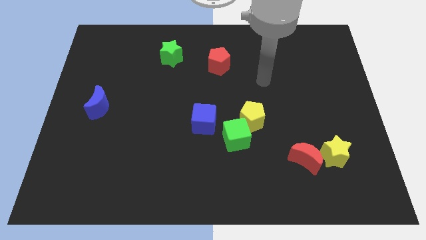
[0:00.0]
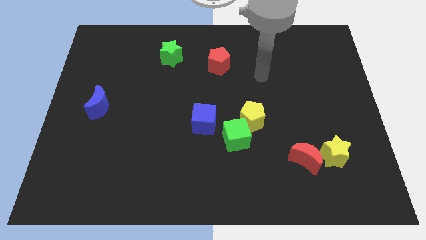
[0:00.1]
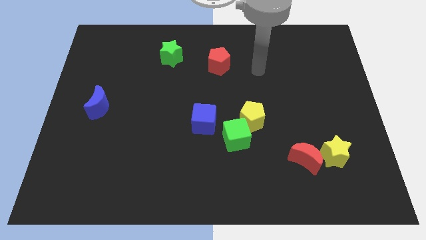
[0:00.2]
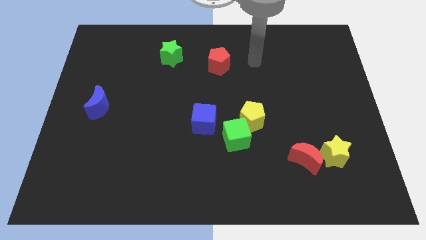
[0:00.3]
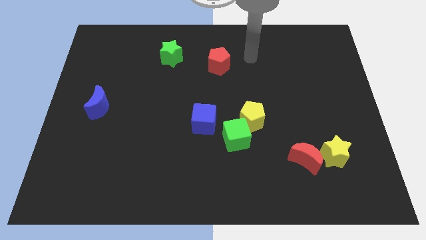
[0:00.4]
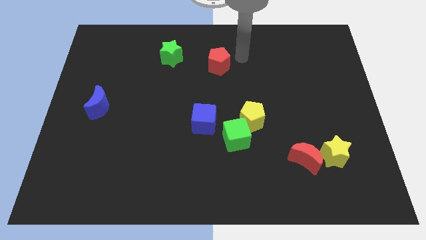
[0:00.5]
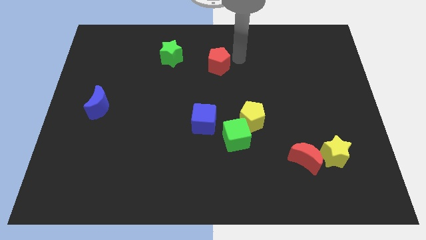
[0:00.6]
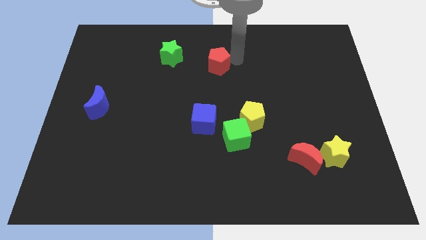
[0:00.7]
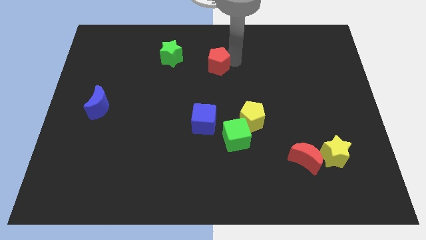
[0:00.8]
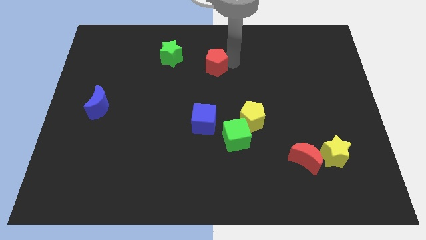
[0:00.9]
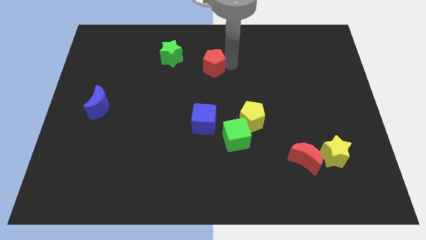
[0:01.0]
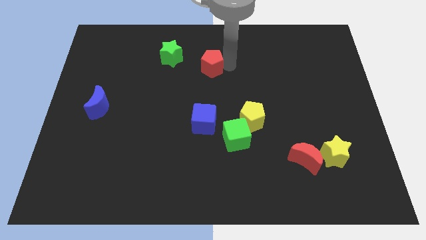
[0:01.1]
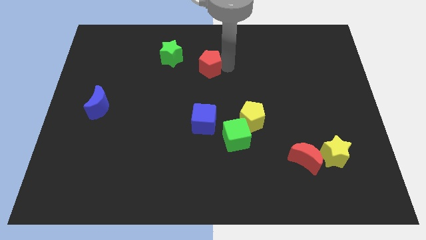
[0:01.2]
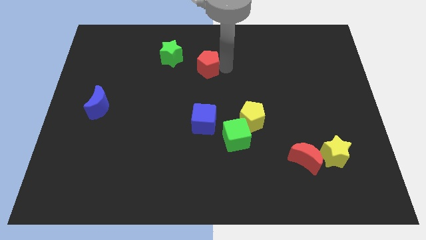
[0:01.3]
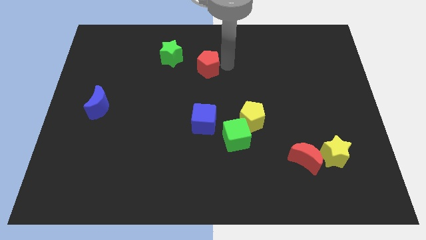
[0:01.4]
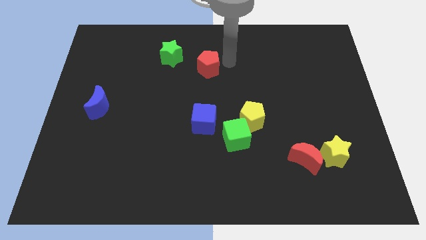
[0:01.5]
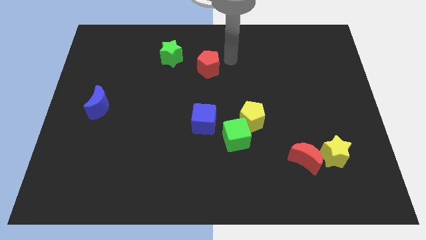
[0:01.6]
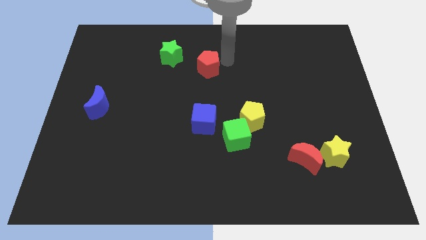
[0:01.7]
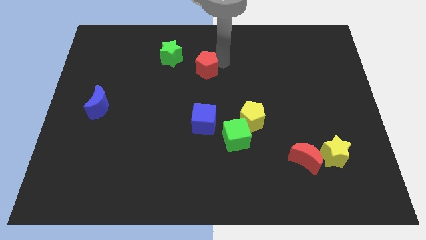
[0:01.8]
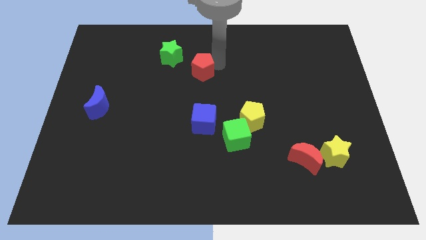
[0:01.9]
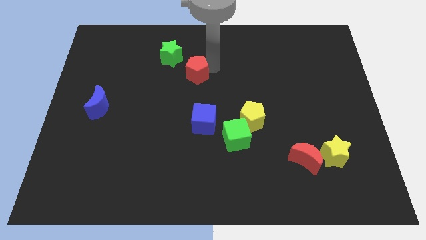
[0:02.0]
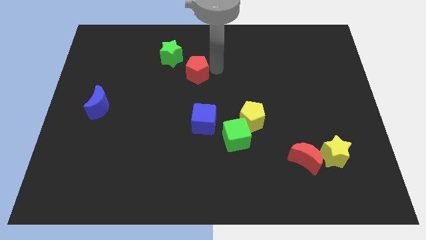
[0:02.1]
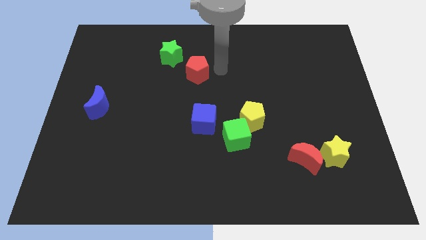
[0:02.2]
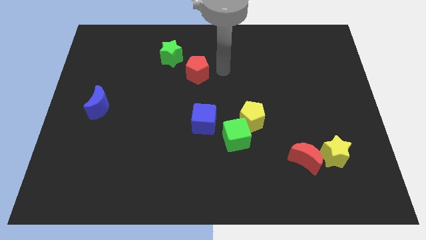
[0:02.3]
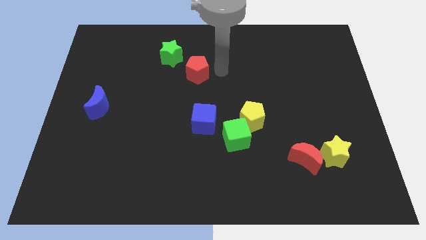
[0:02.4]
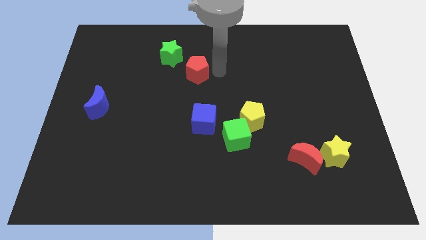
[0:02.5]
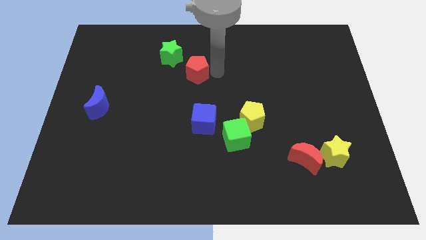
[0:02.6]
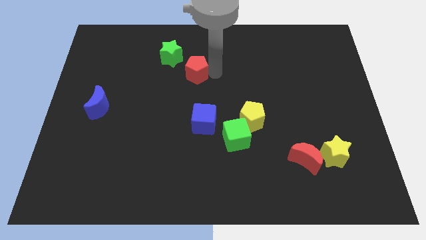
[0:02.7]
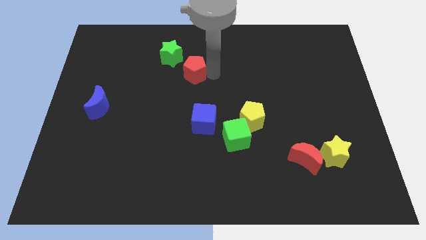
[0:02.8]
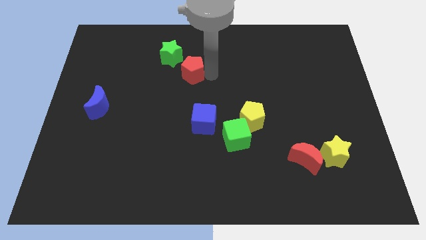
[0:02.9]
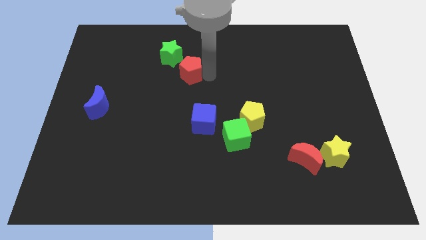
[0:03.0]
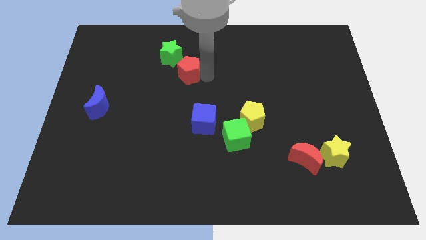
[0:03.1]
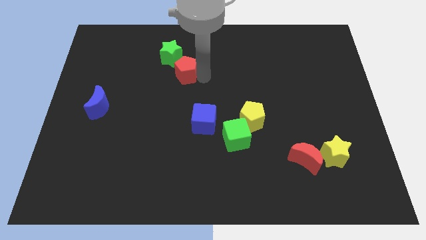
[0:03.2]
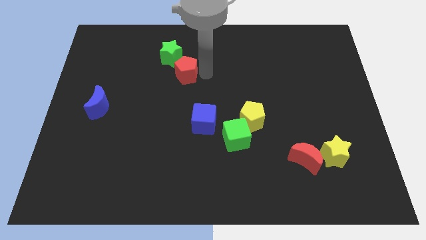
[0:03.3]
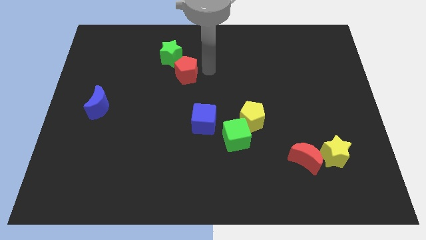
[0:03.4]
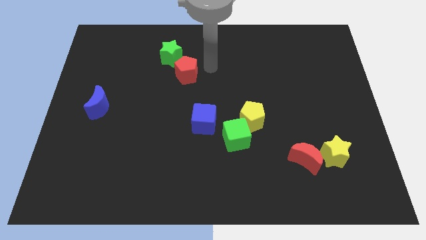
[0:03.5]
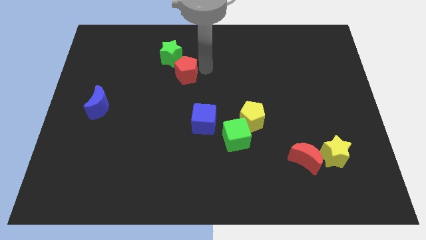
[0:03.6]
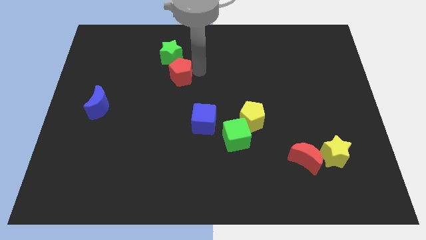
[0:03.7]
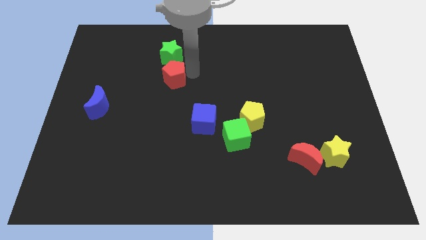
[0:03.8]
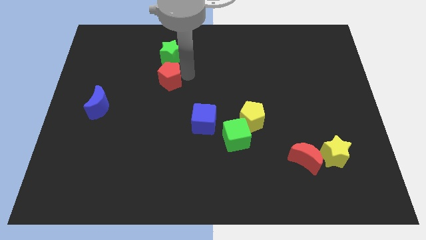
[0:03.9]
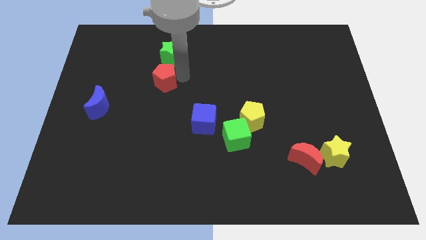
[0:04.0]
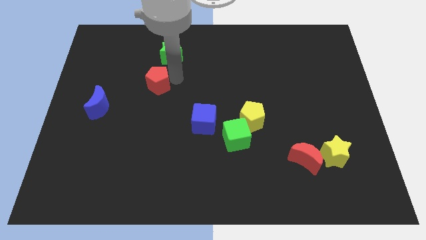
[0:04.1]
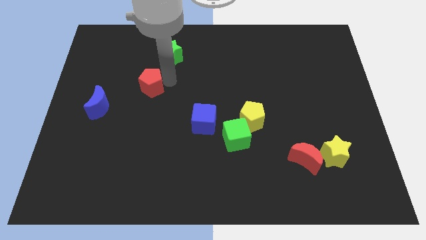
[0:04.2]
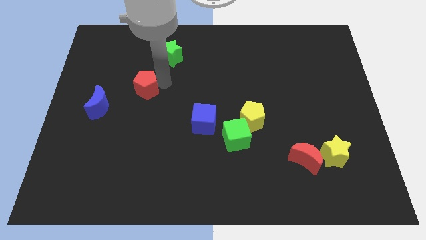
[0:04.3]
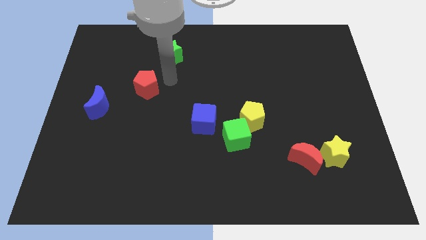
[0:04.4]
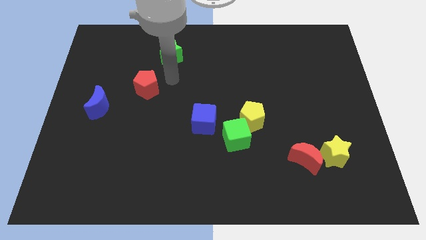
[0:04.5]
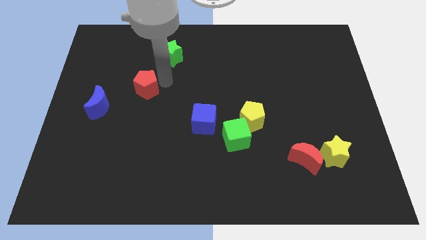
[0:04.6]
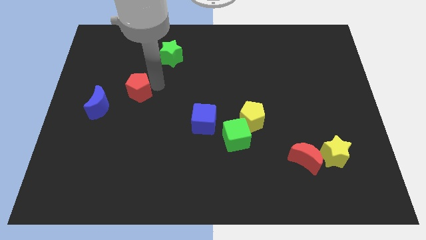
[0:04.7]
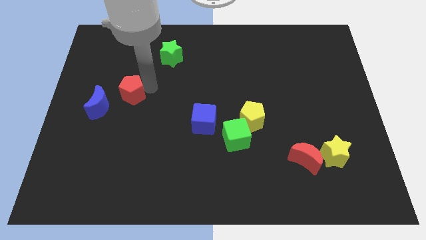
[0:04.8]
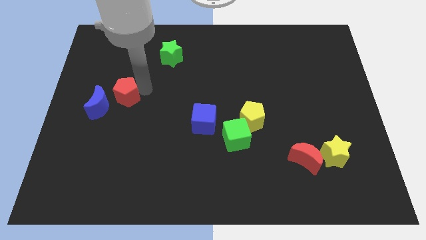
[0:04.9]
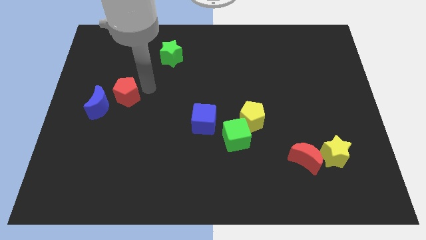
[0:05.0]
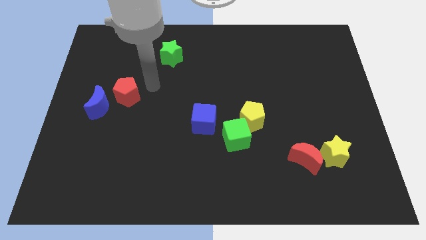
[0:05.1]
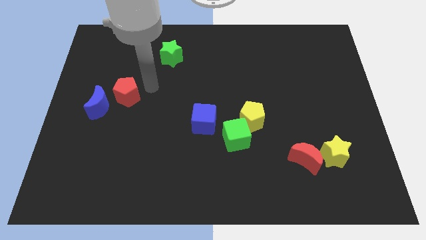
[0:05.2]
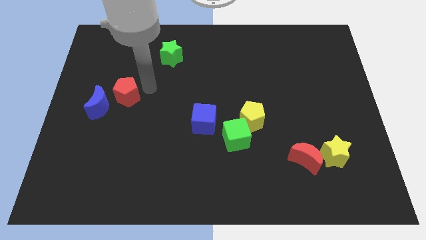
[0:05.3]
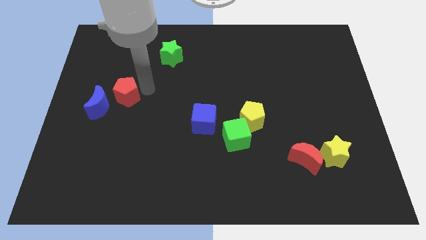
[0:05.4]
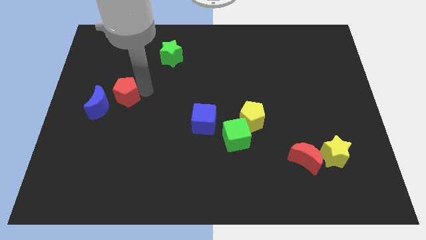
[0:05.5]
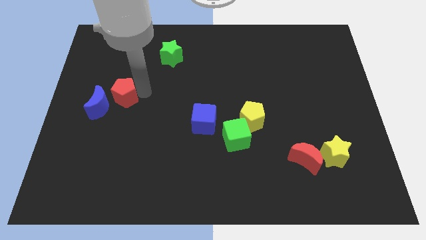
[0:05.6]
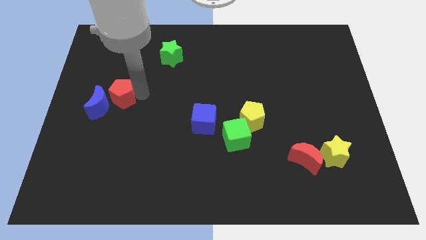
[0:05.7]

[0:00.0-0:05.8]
move the red pentagon towards the blue moon

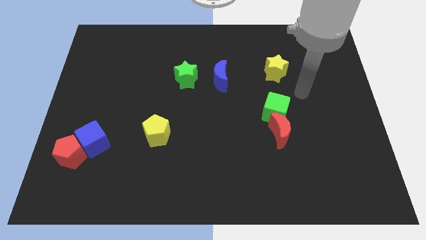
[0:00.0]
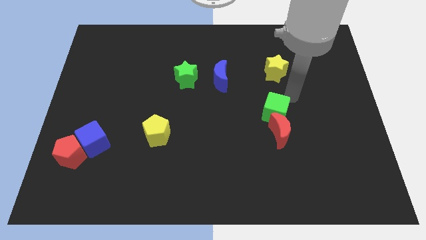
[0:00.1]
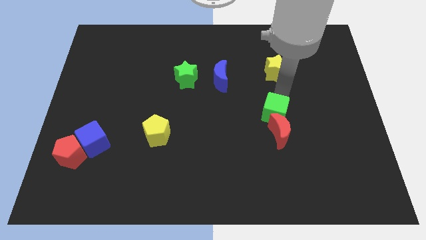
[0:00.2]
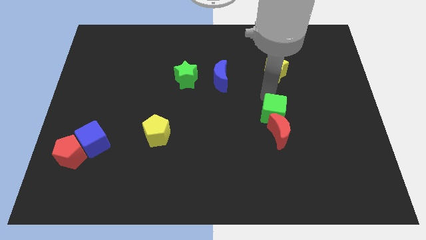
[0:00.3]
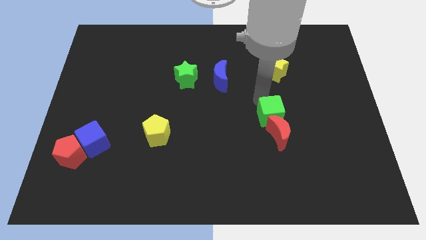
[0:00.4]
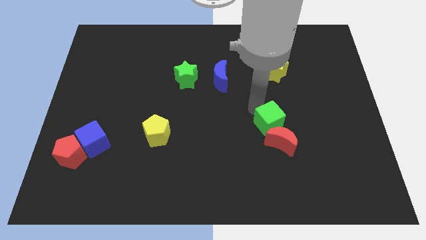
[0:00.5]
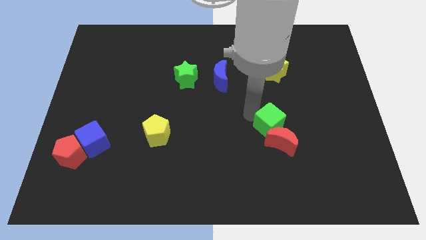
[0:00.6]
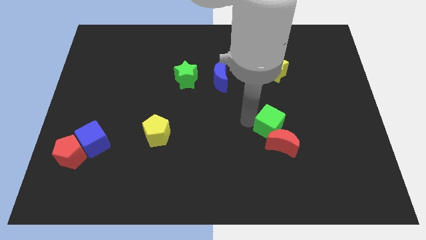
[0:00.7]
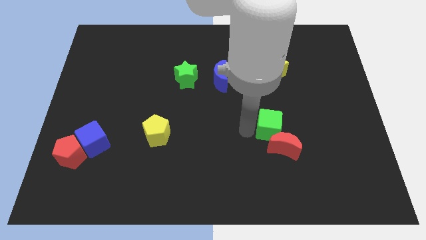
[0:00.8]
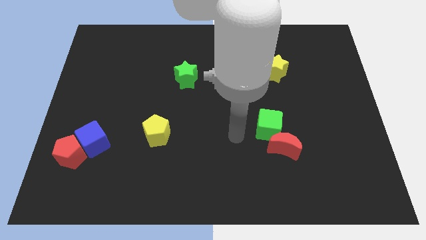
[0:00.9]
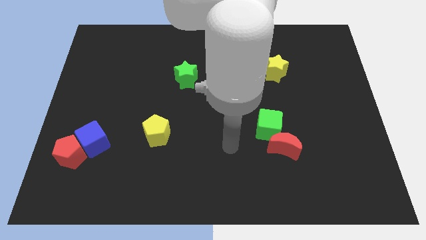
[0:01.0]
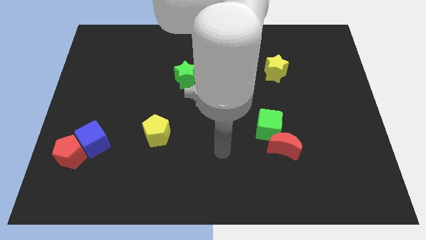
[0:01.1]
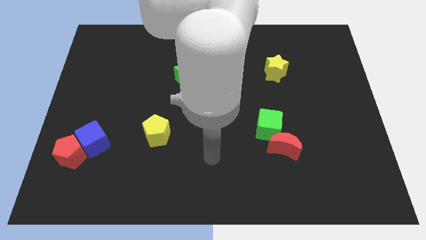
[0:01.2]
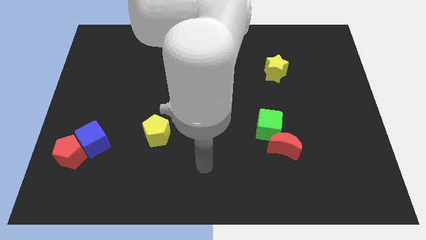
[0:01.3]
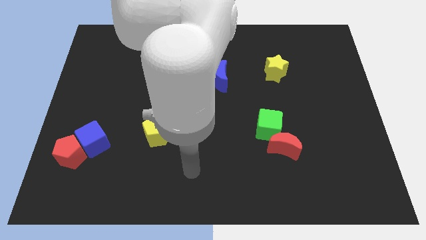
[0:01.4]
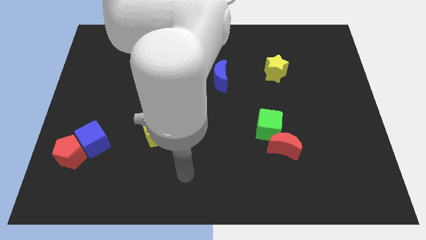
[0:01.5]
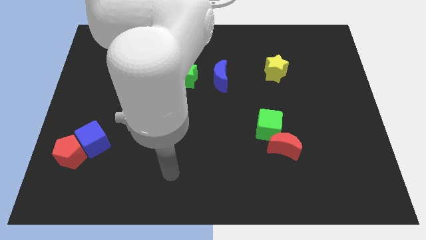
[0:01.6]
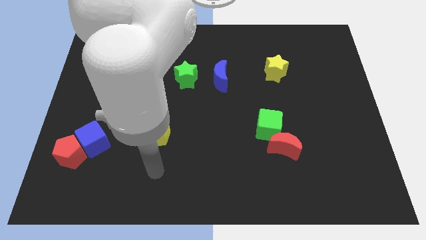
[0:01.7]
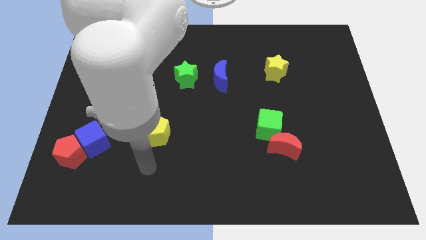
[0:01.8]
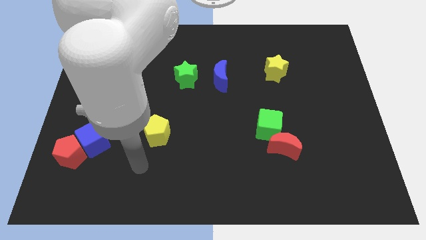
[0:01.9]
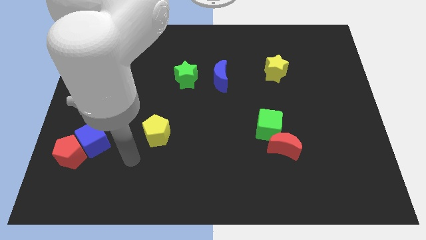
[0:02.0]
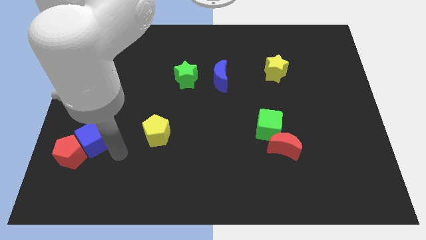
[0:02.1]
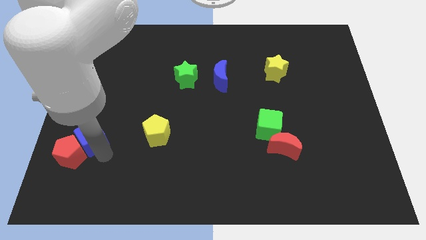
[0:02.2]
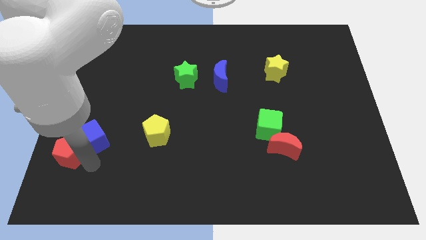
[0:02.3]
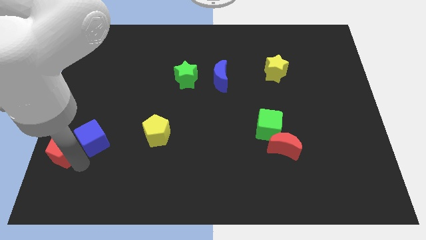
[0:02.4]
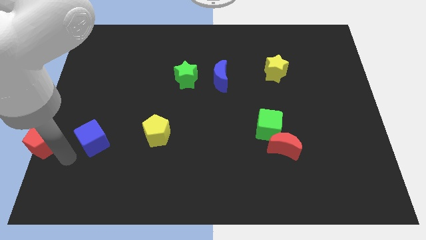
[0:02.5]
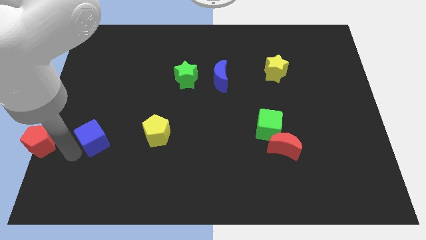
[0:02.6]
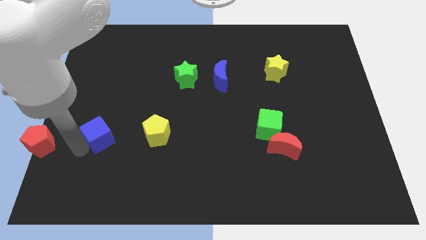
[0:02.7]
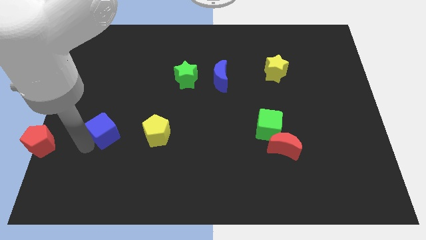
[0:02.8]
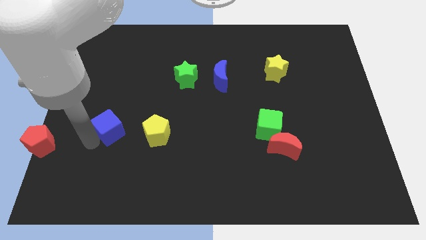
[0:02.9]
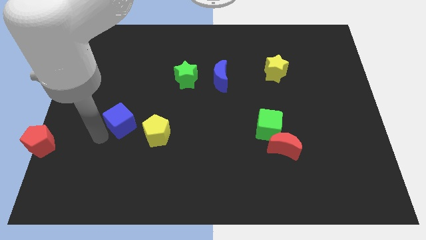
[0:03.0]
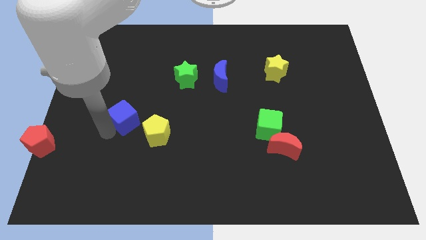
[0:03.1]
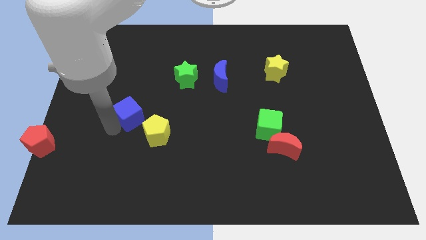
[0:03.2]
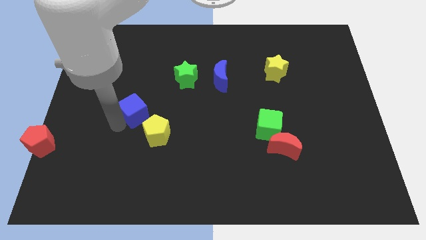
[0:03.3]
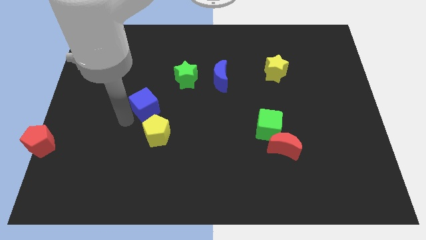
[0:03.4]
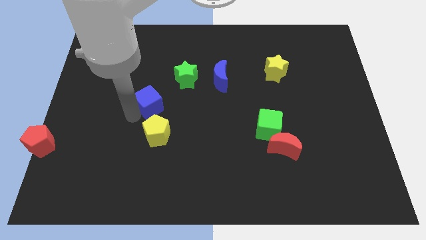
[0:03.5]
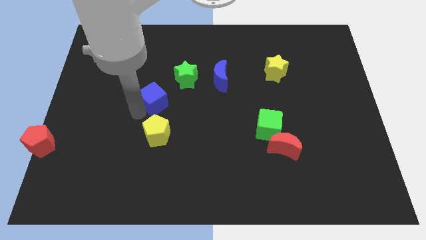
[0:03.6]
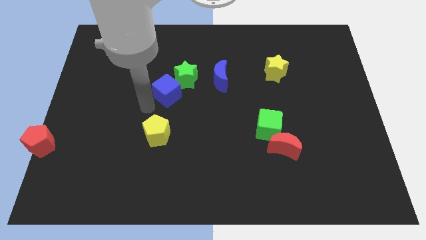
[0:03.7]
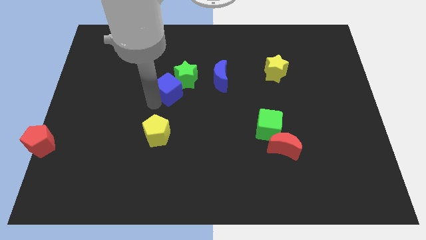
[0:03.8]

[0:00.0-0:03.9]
slide the blue cube next to the green star
